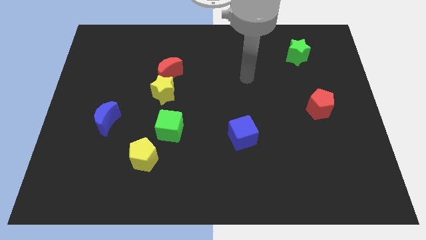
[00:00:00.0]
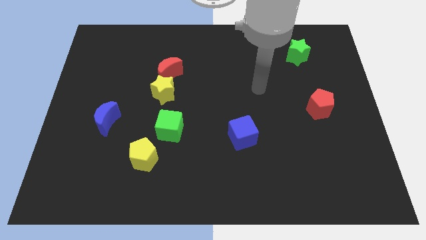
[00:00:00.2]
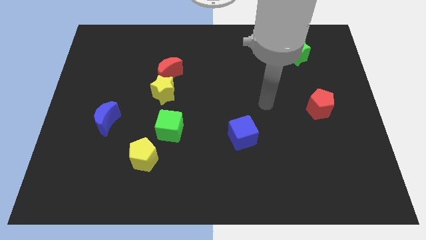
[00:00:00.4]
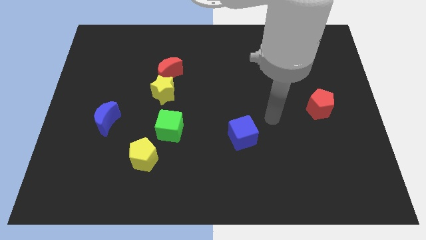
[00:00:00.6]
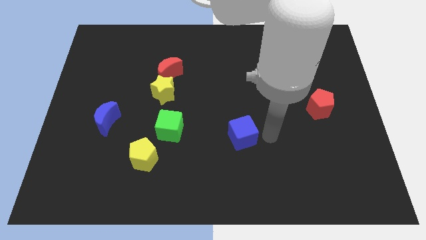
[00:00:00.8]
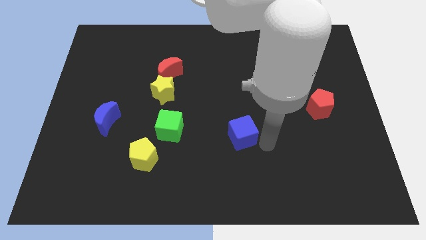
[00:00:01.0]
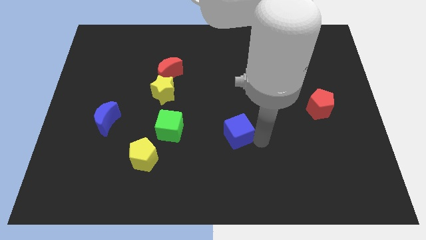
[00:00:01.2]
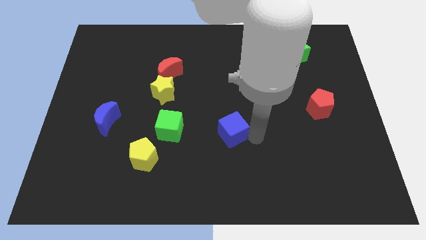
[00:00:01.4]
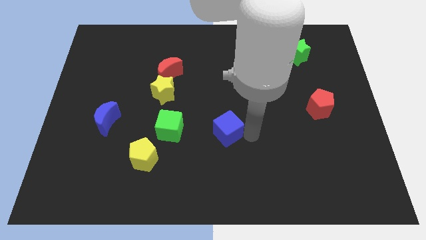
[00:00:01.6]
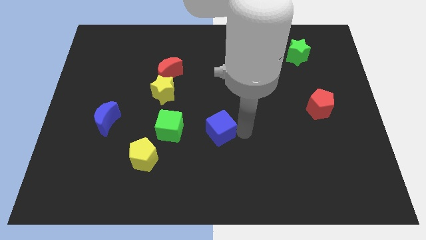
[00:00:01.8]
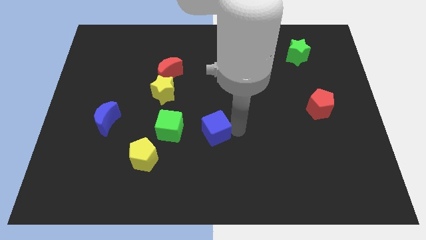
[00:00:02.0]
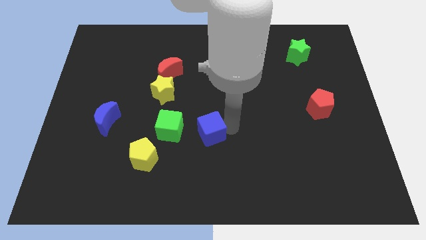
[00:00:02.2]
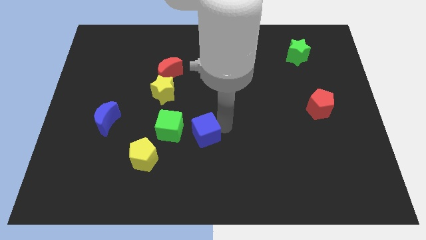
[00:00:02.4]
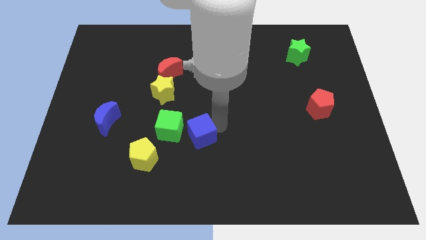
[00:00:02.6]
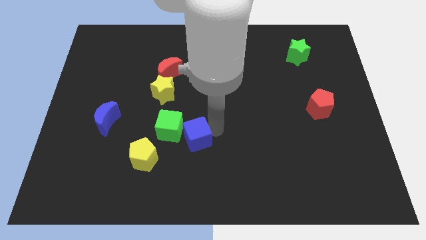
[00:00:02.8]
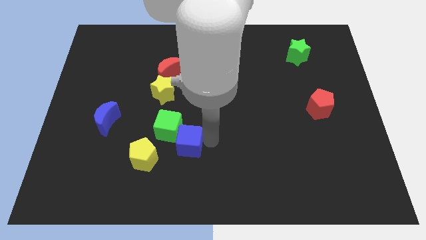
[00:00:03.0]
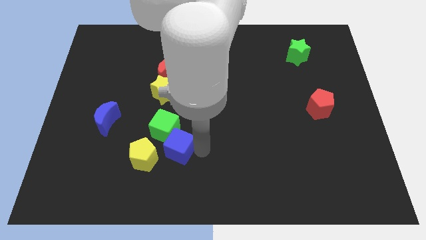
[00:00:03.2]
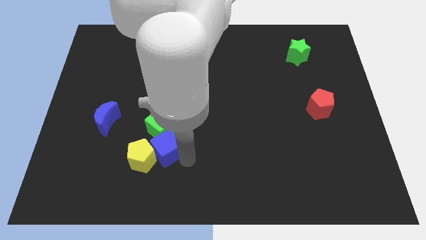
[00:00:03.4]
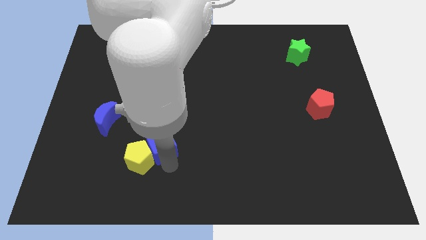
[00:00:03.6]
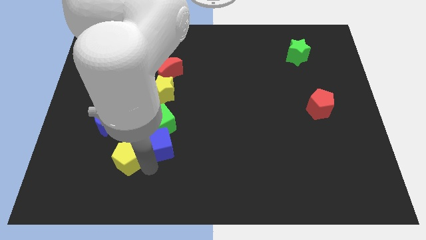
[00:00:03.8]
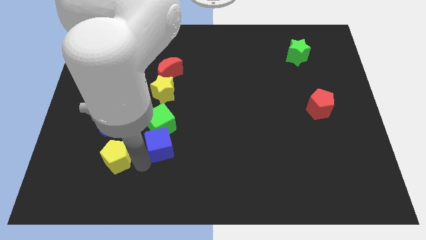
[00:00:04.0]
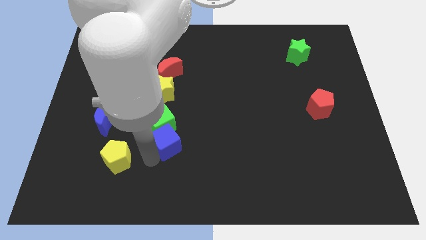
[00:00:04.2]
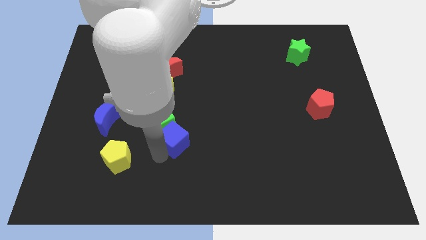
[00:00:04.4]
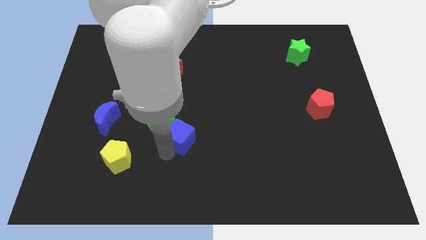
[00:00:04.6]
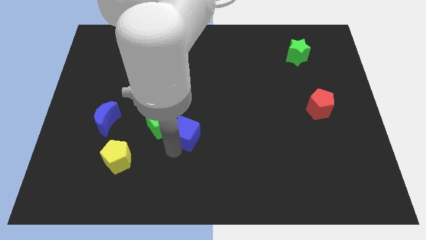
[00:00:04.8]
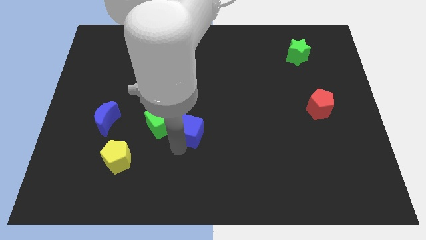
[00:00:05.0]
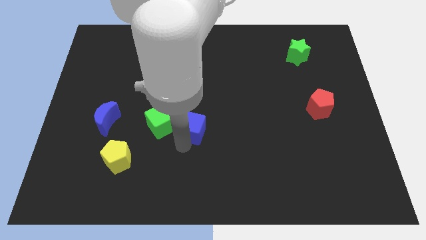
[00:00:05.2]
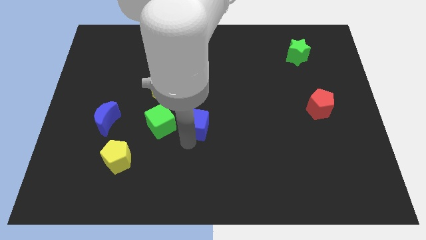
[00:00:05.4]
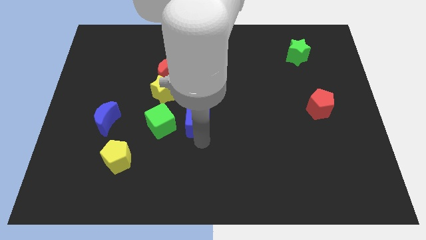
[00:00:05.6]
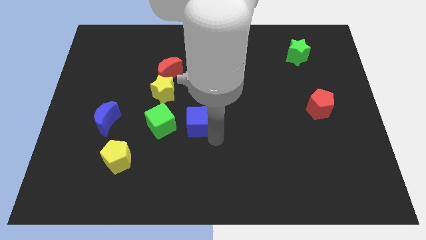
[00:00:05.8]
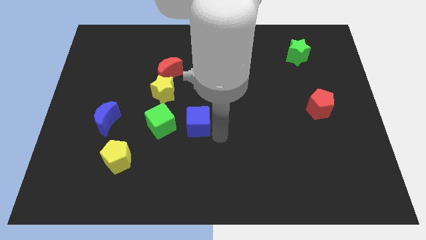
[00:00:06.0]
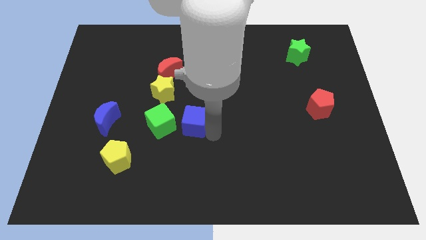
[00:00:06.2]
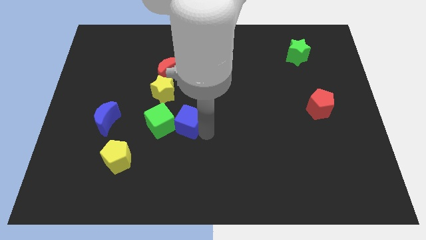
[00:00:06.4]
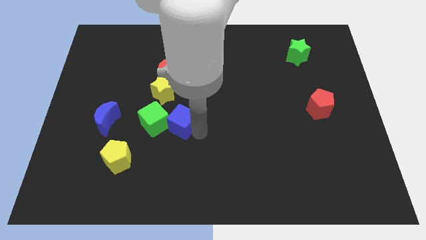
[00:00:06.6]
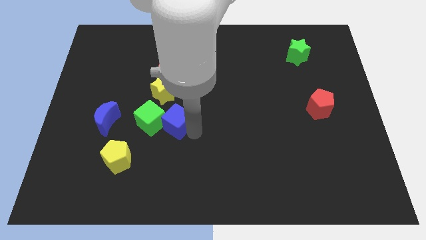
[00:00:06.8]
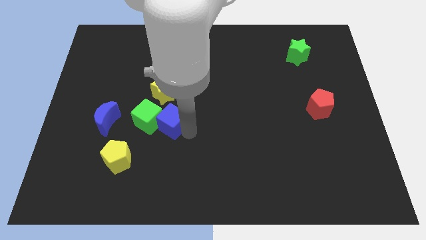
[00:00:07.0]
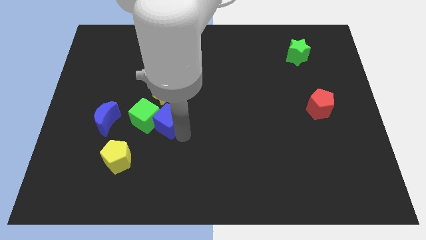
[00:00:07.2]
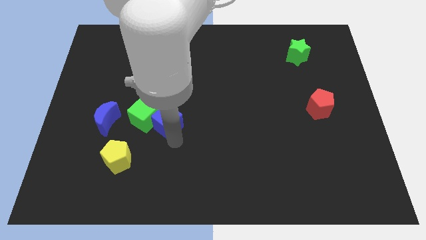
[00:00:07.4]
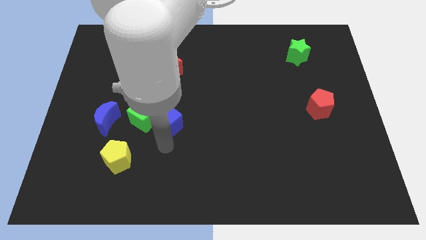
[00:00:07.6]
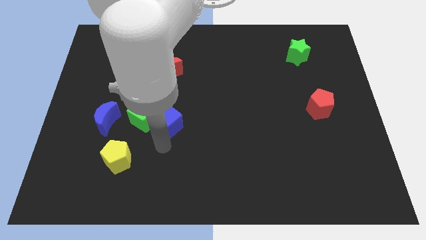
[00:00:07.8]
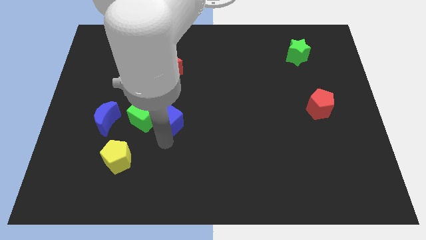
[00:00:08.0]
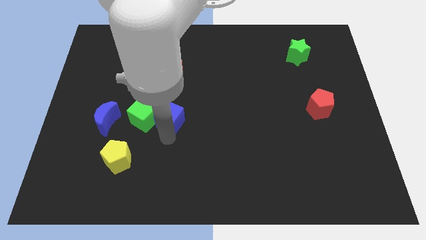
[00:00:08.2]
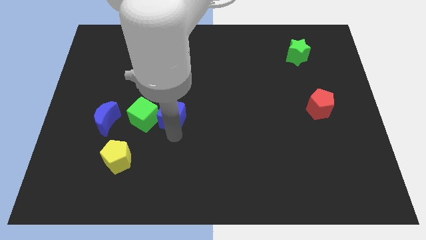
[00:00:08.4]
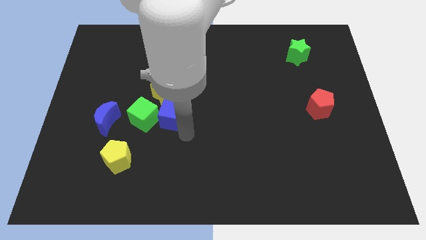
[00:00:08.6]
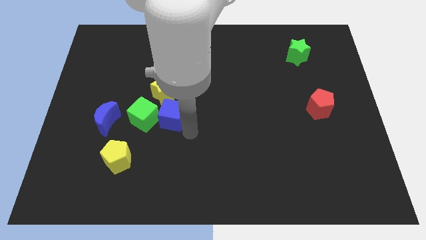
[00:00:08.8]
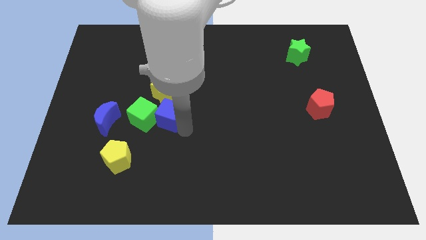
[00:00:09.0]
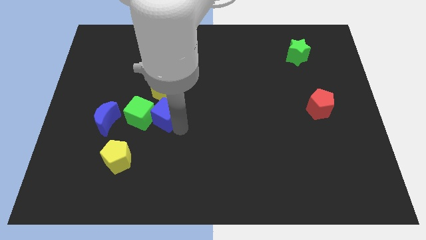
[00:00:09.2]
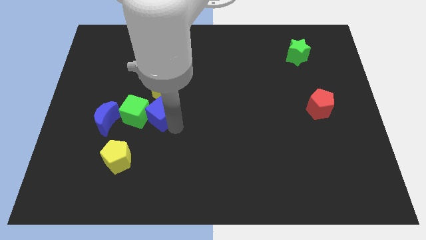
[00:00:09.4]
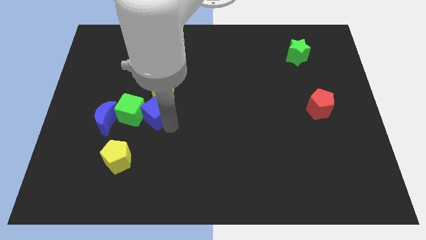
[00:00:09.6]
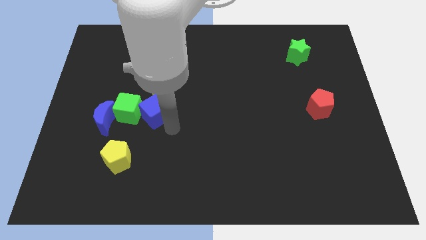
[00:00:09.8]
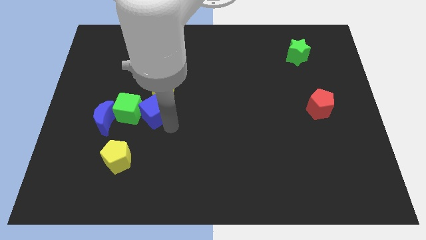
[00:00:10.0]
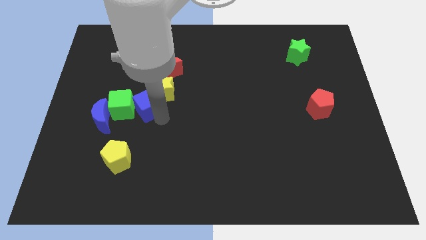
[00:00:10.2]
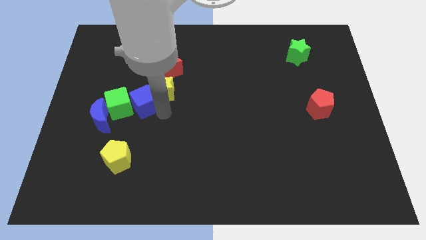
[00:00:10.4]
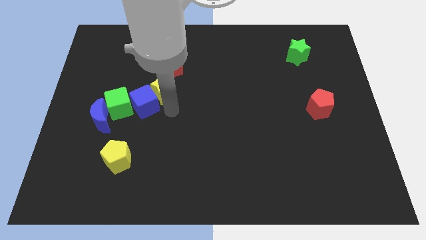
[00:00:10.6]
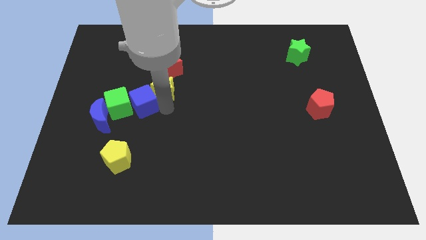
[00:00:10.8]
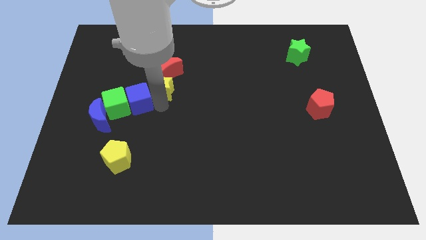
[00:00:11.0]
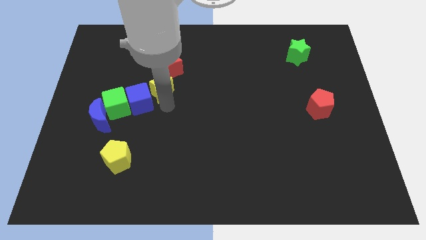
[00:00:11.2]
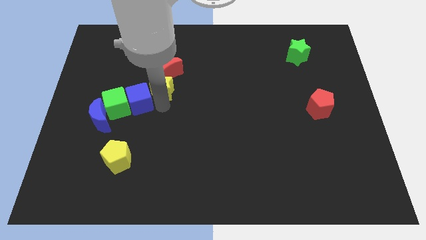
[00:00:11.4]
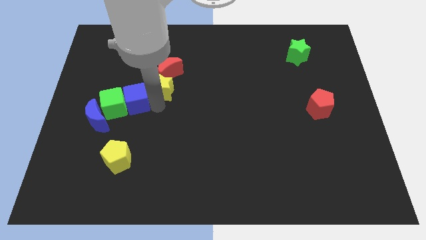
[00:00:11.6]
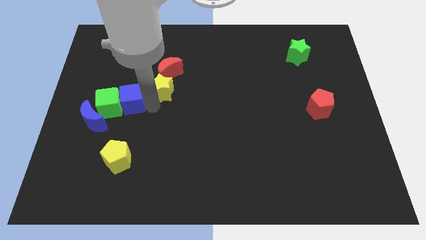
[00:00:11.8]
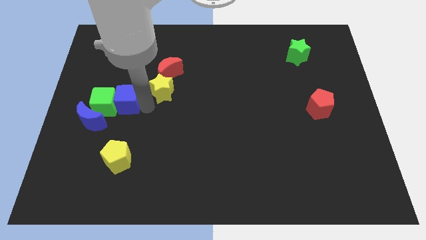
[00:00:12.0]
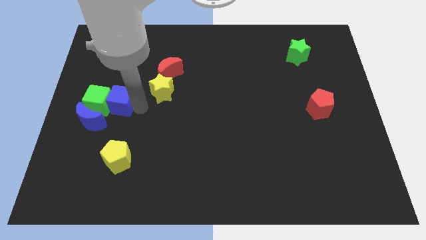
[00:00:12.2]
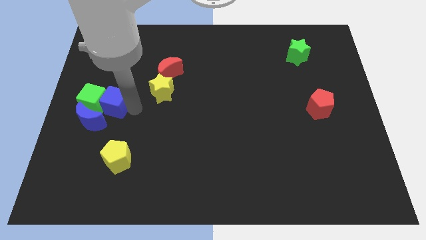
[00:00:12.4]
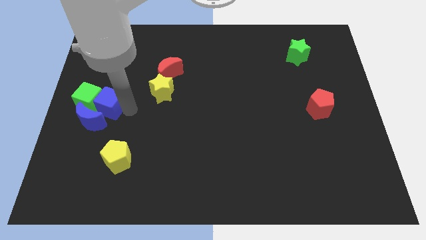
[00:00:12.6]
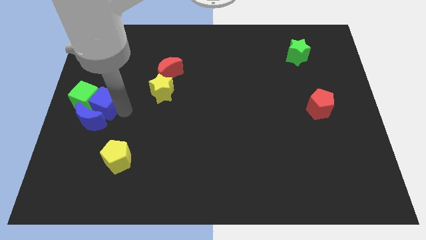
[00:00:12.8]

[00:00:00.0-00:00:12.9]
put the blue cube to the left side of the board

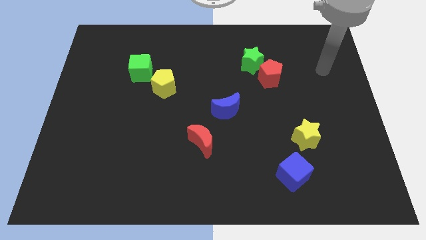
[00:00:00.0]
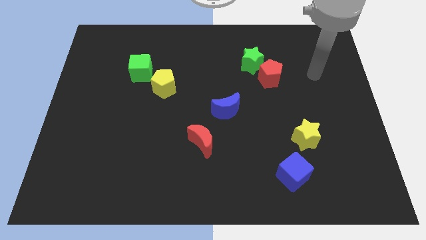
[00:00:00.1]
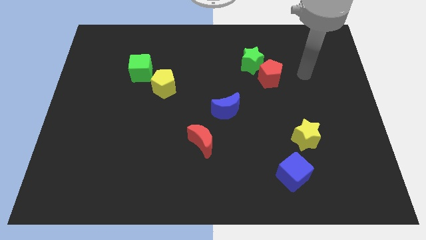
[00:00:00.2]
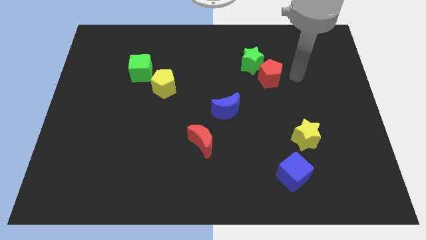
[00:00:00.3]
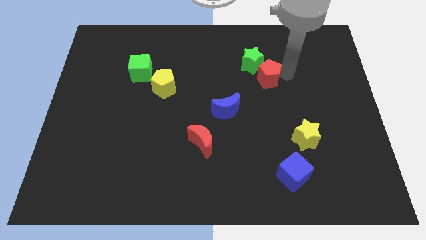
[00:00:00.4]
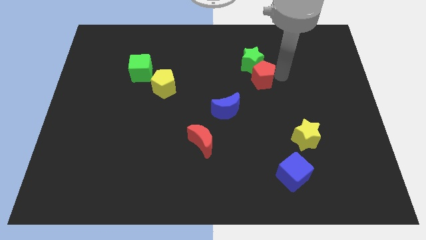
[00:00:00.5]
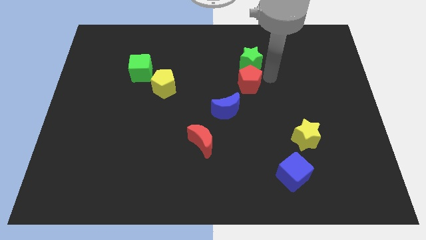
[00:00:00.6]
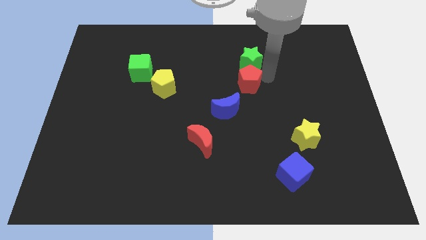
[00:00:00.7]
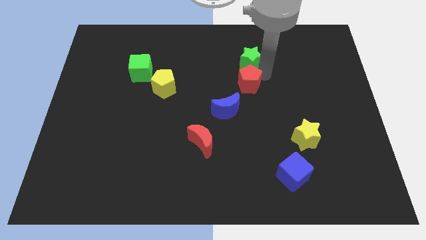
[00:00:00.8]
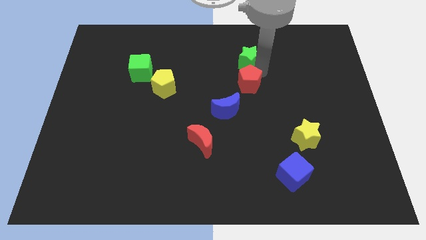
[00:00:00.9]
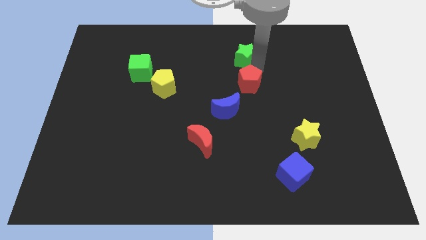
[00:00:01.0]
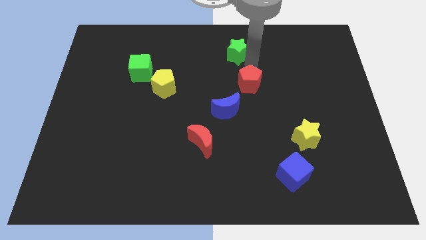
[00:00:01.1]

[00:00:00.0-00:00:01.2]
push the green star to the top
